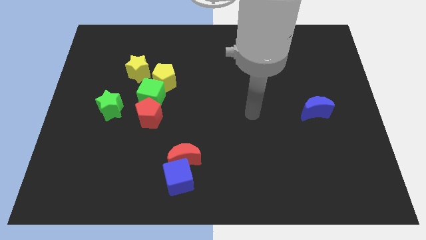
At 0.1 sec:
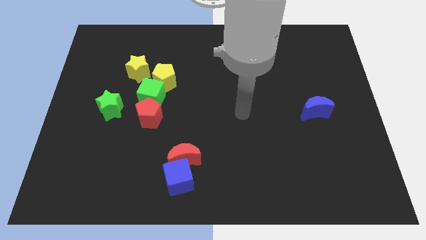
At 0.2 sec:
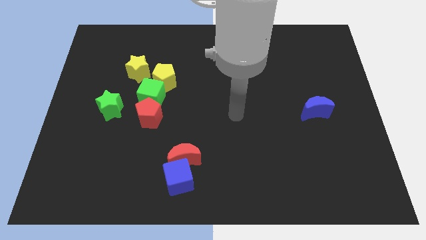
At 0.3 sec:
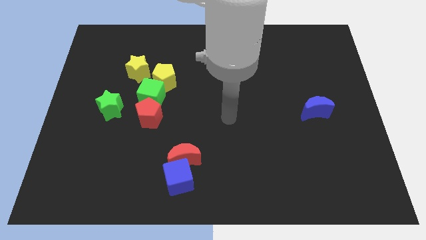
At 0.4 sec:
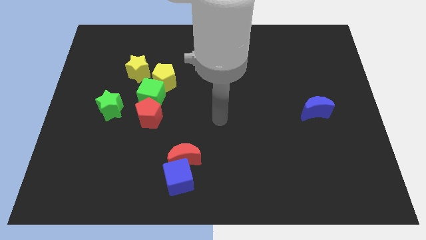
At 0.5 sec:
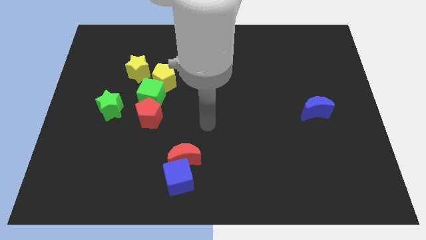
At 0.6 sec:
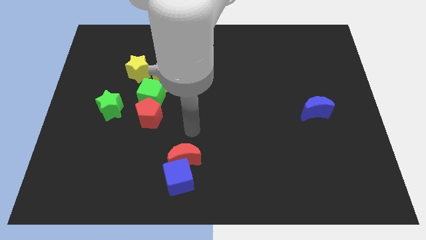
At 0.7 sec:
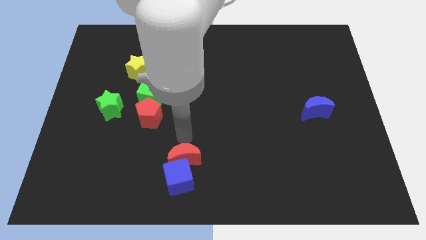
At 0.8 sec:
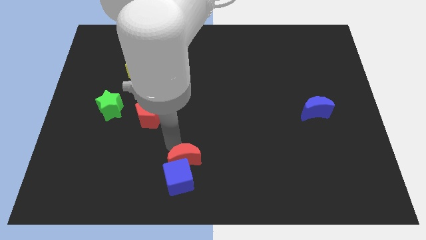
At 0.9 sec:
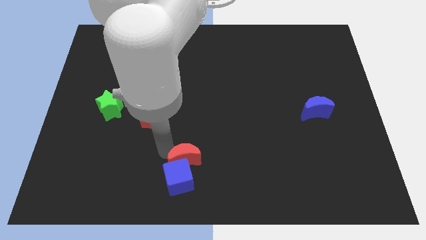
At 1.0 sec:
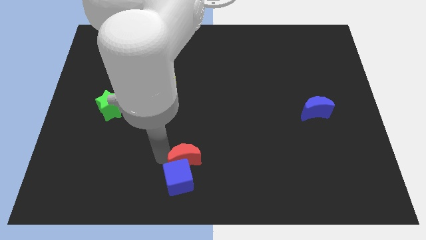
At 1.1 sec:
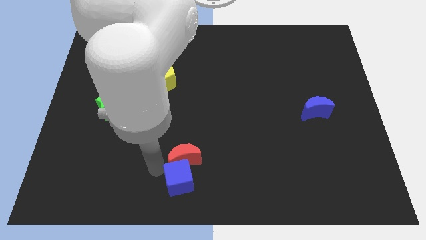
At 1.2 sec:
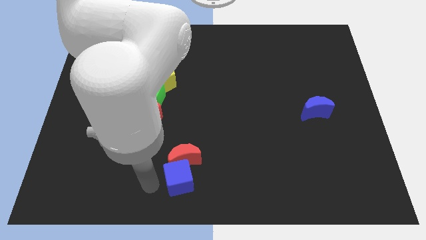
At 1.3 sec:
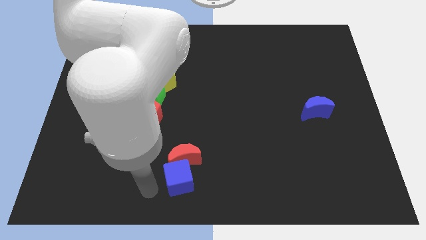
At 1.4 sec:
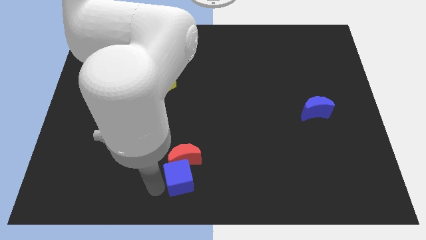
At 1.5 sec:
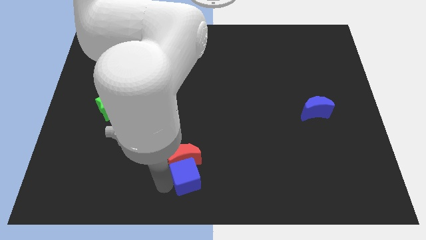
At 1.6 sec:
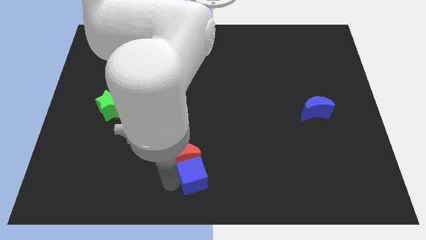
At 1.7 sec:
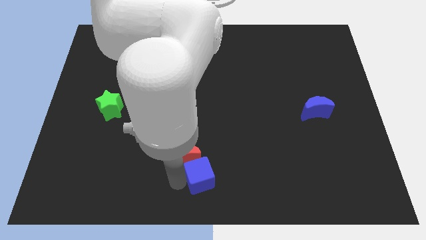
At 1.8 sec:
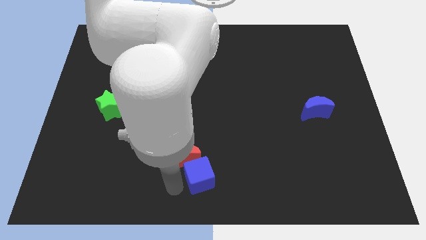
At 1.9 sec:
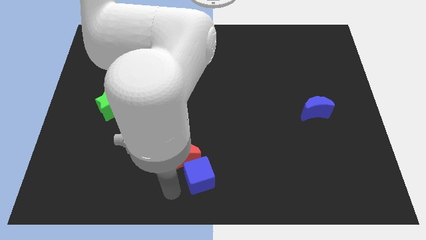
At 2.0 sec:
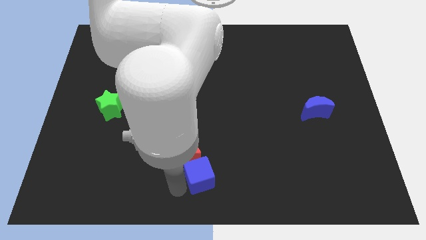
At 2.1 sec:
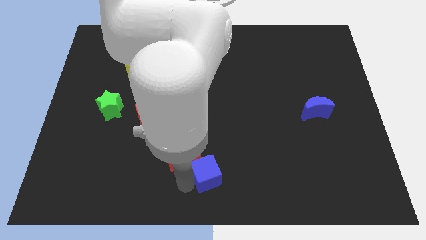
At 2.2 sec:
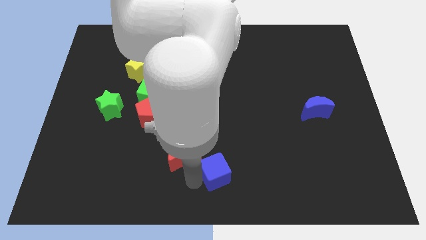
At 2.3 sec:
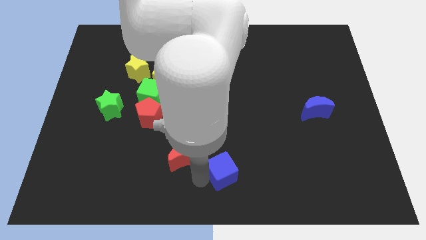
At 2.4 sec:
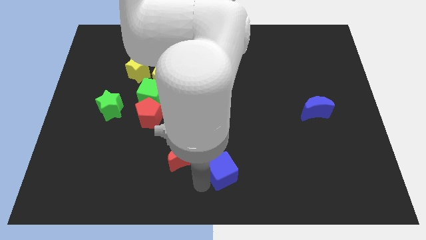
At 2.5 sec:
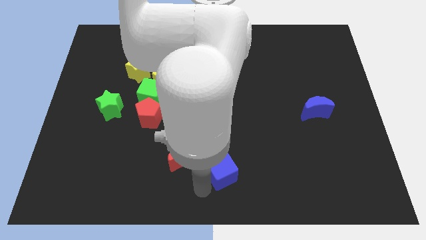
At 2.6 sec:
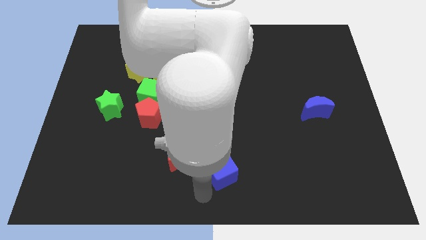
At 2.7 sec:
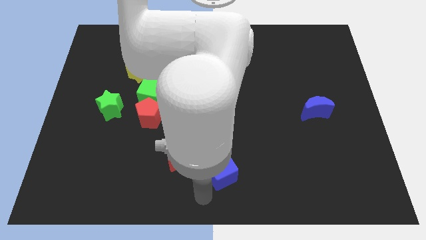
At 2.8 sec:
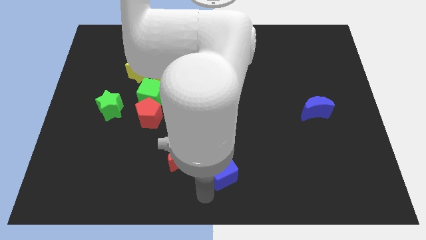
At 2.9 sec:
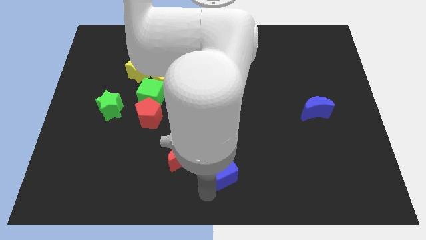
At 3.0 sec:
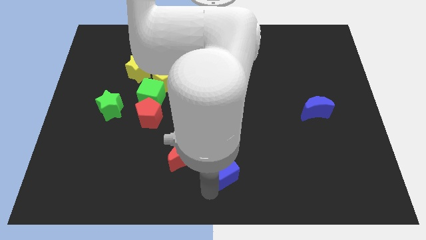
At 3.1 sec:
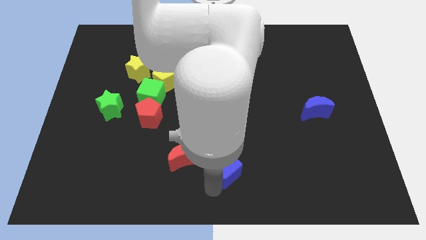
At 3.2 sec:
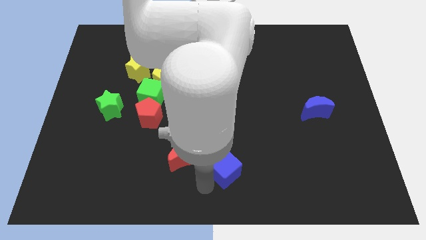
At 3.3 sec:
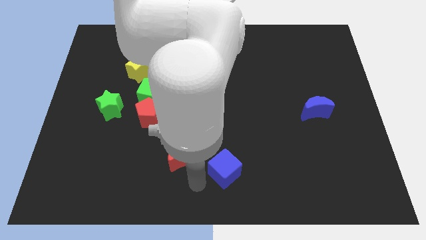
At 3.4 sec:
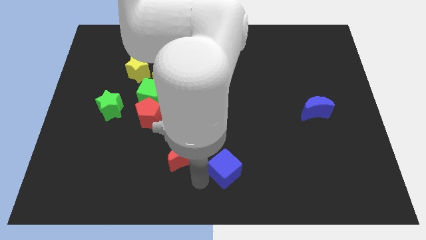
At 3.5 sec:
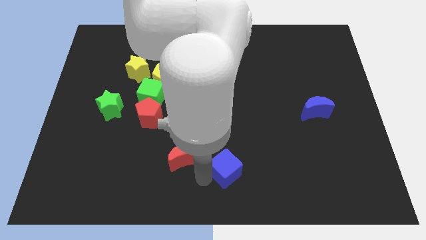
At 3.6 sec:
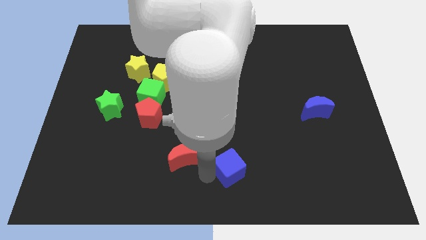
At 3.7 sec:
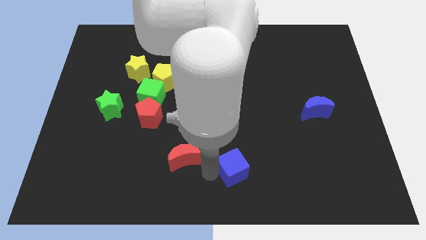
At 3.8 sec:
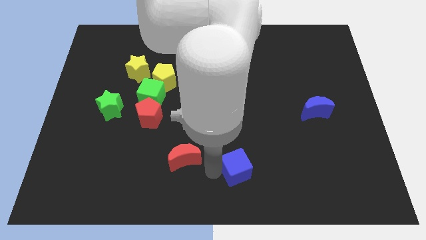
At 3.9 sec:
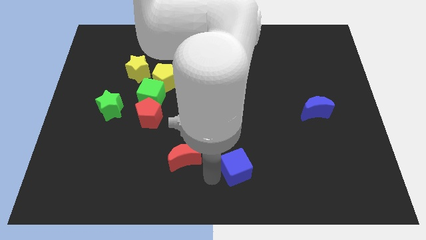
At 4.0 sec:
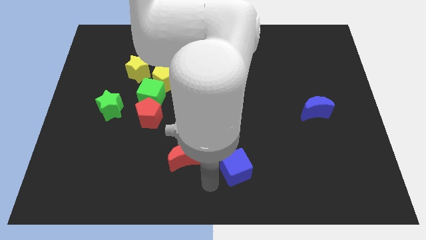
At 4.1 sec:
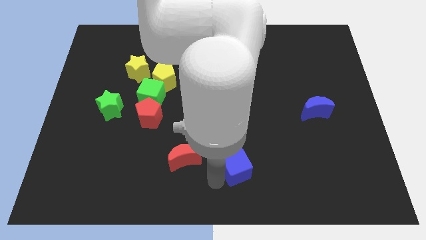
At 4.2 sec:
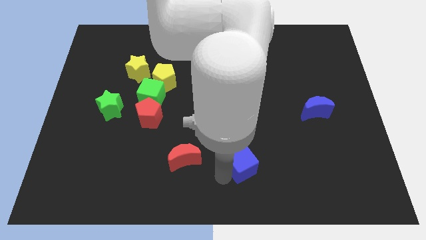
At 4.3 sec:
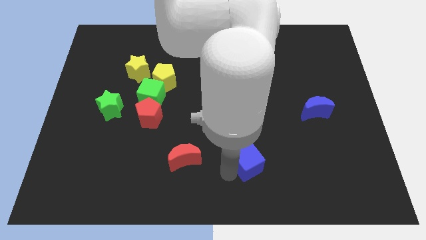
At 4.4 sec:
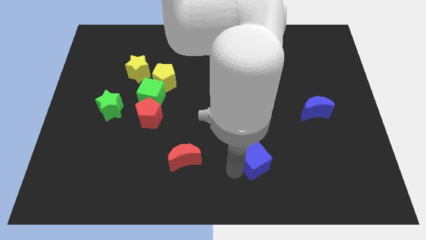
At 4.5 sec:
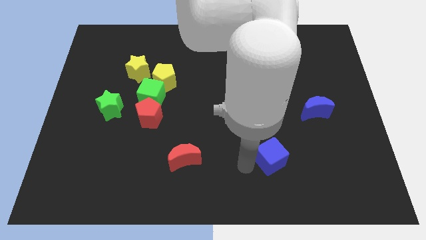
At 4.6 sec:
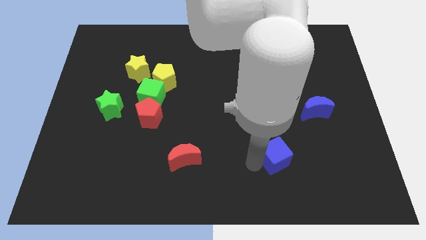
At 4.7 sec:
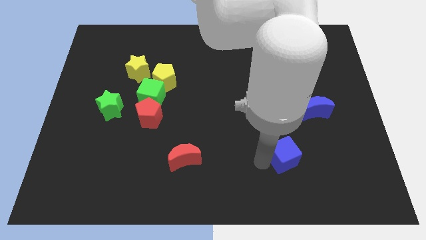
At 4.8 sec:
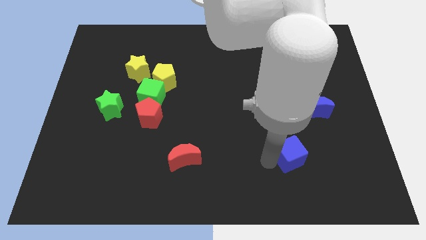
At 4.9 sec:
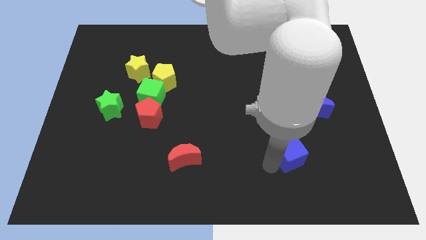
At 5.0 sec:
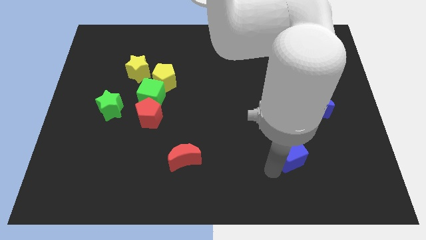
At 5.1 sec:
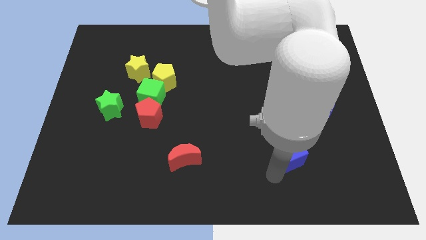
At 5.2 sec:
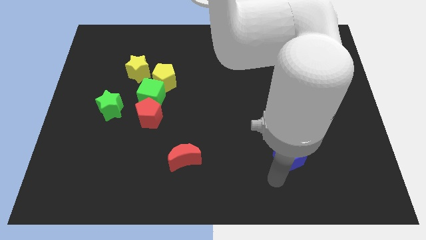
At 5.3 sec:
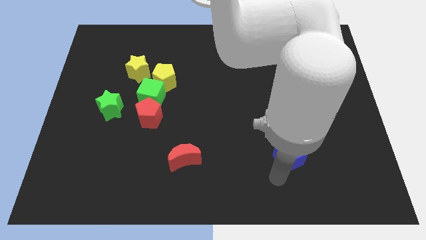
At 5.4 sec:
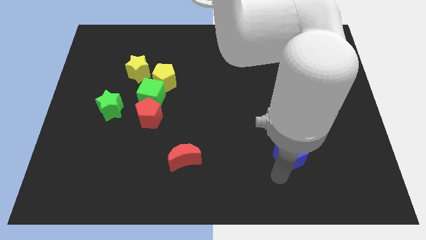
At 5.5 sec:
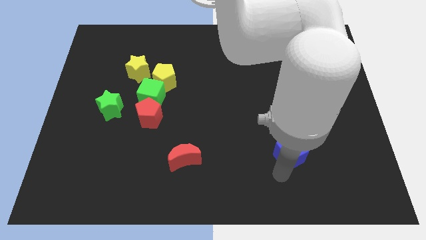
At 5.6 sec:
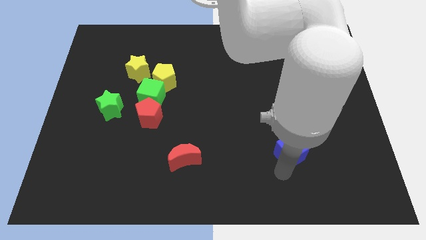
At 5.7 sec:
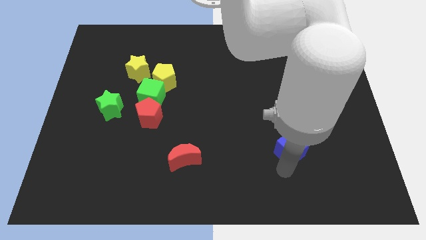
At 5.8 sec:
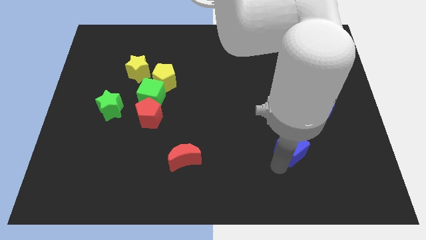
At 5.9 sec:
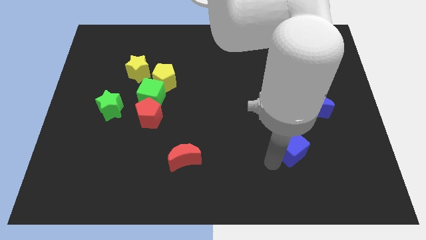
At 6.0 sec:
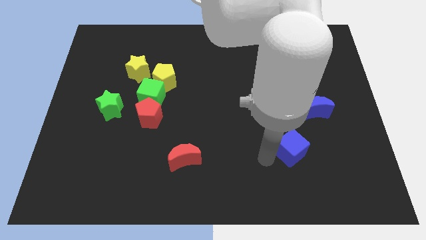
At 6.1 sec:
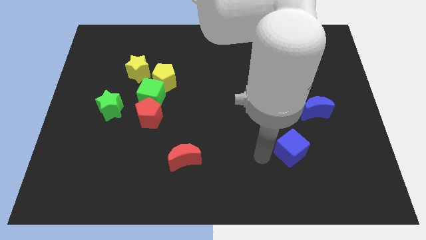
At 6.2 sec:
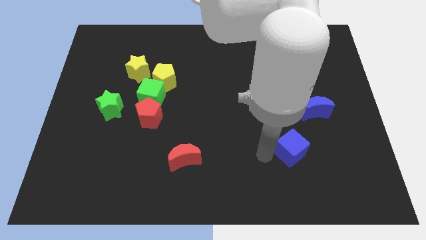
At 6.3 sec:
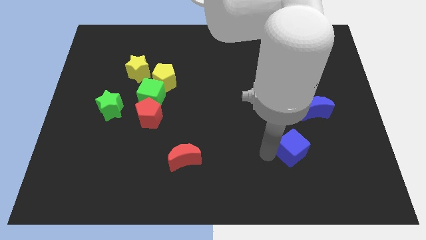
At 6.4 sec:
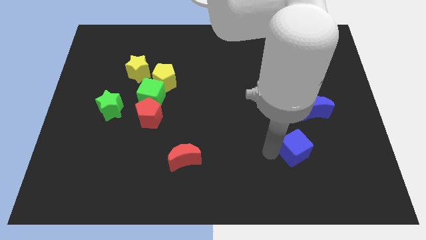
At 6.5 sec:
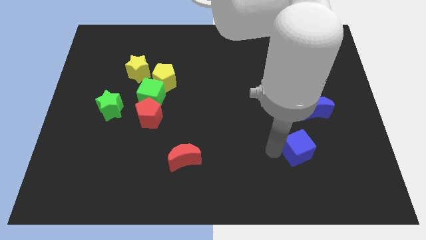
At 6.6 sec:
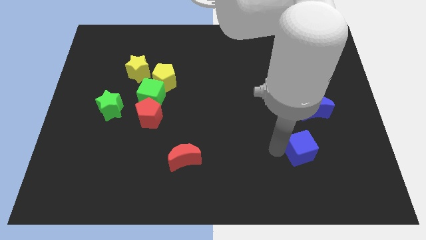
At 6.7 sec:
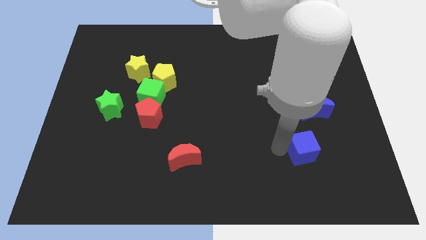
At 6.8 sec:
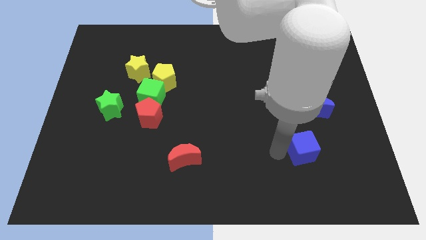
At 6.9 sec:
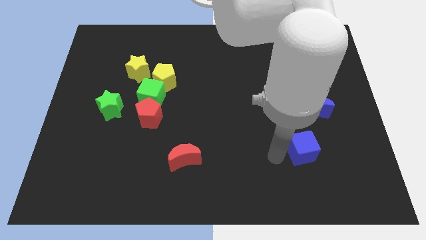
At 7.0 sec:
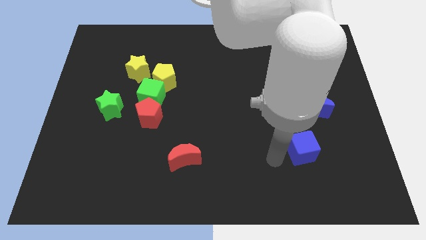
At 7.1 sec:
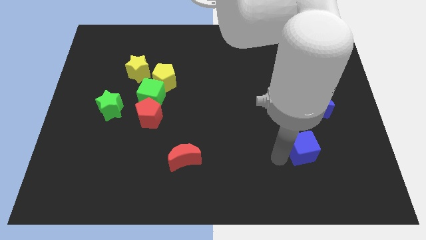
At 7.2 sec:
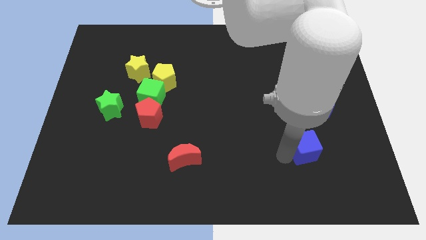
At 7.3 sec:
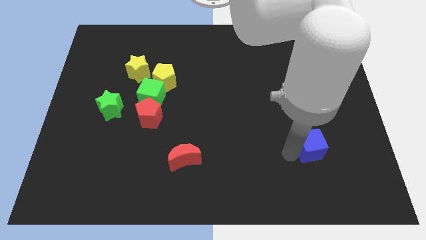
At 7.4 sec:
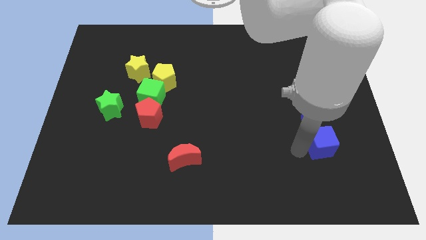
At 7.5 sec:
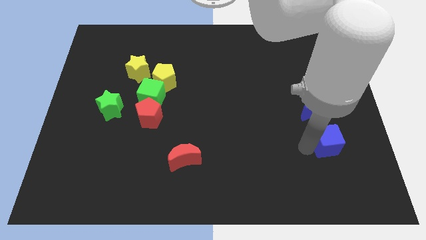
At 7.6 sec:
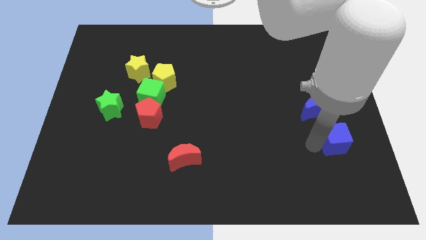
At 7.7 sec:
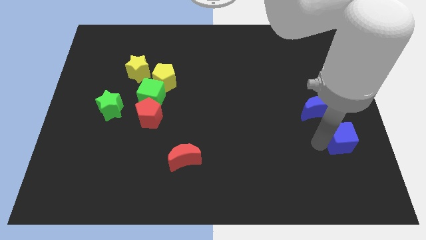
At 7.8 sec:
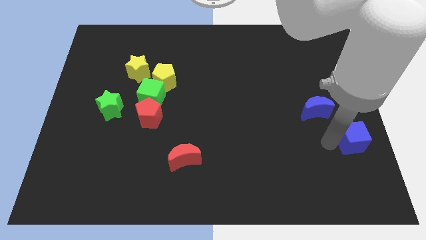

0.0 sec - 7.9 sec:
move the blue cube to the right side
